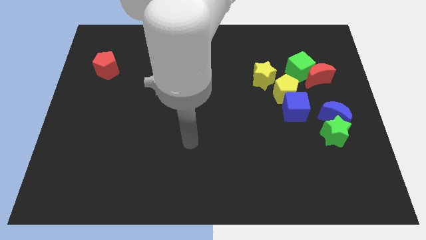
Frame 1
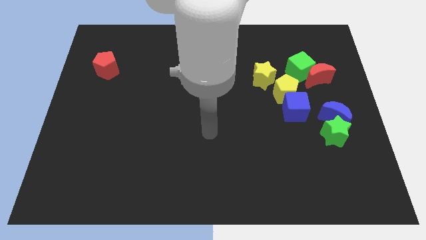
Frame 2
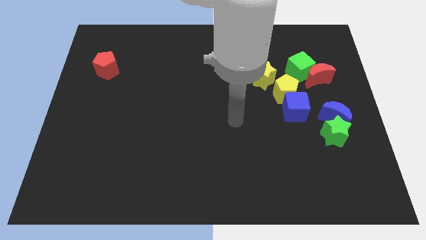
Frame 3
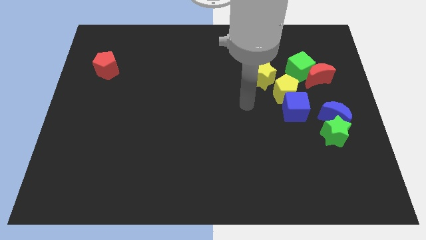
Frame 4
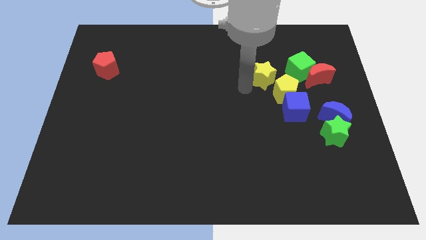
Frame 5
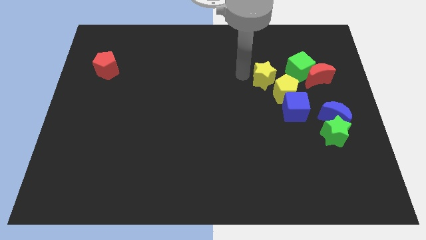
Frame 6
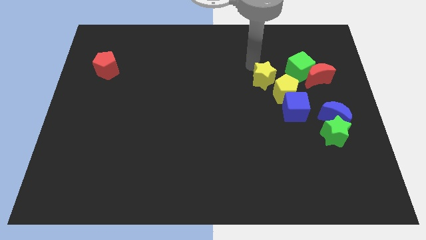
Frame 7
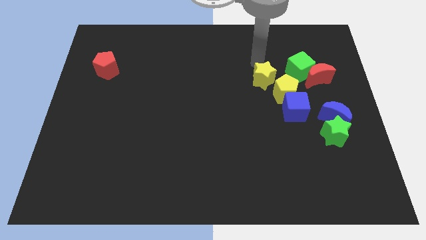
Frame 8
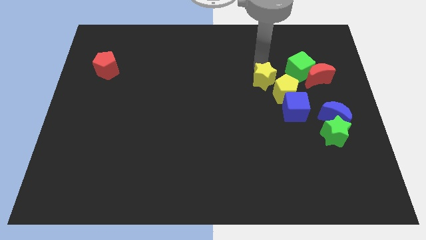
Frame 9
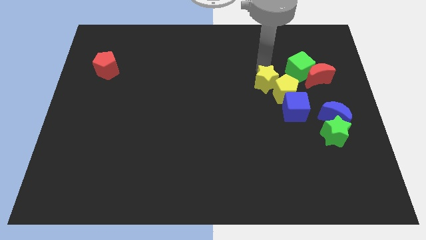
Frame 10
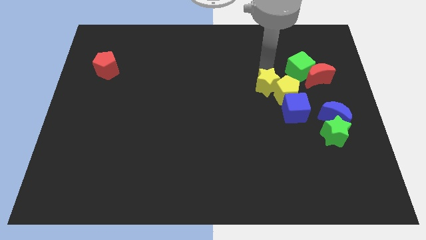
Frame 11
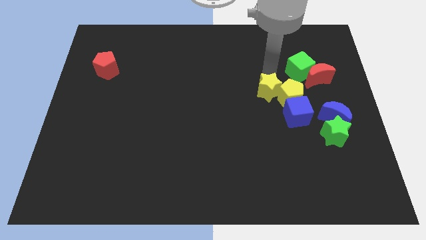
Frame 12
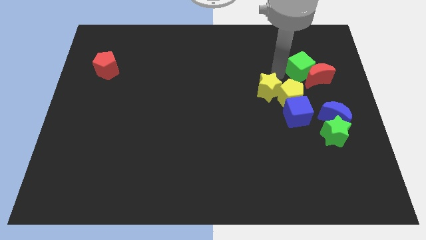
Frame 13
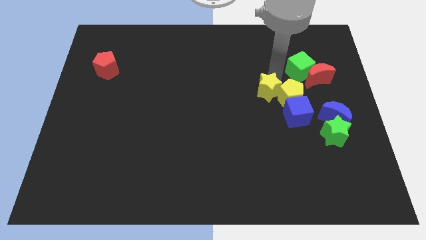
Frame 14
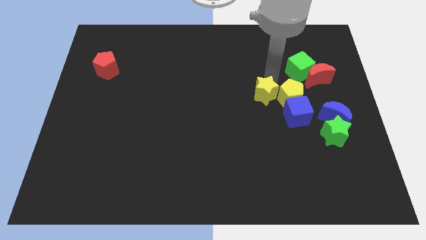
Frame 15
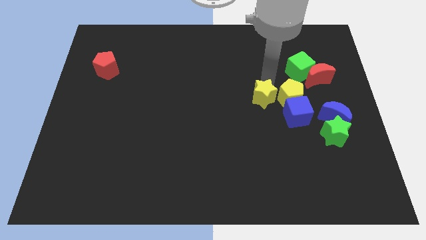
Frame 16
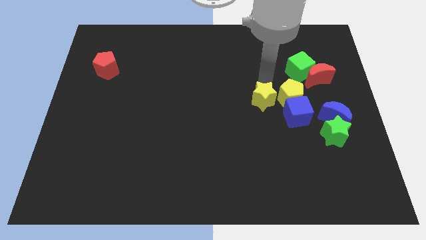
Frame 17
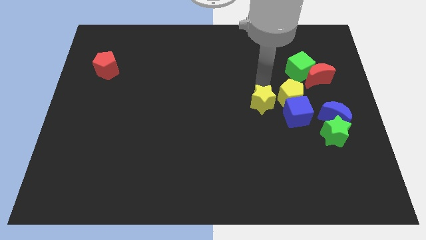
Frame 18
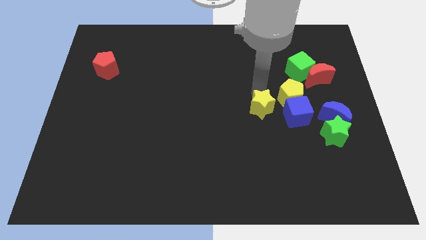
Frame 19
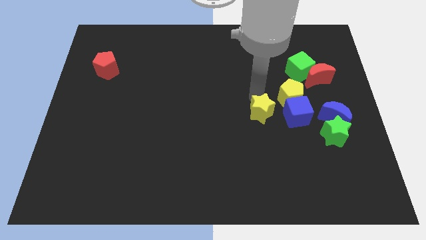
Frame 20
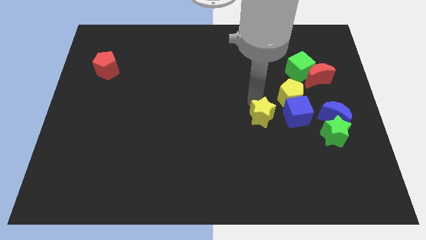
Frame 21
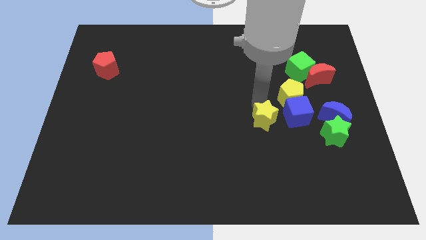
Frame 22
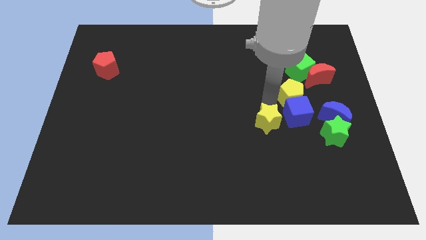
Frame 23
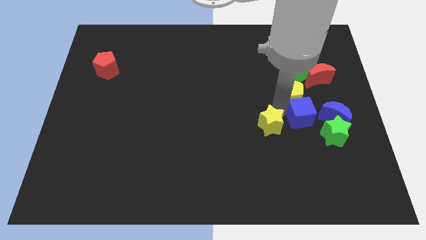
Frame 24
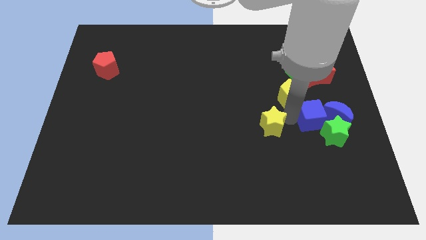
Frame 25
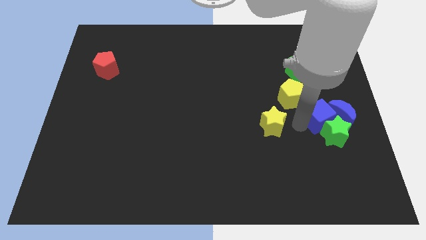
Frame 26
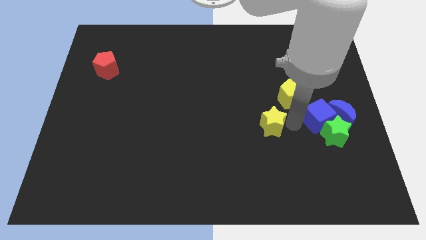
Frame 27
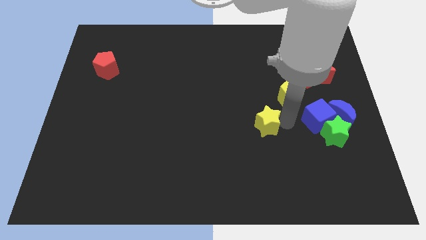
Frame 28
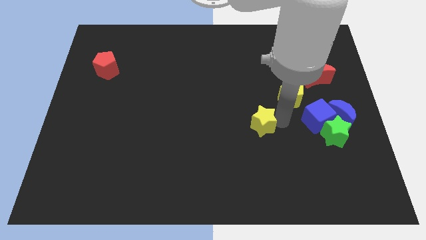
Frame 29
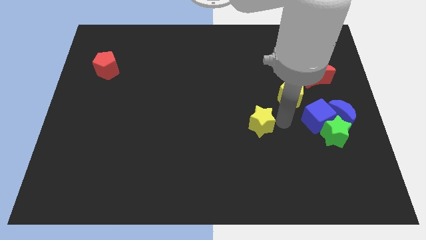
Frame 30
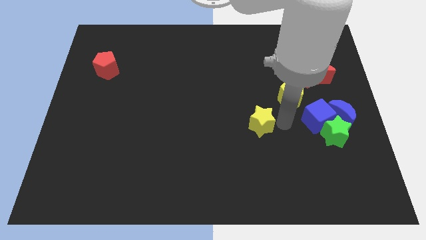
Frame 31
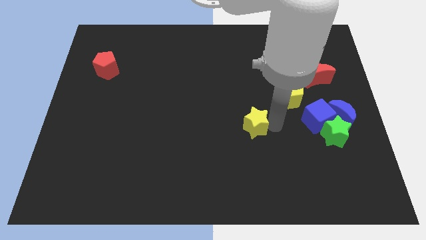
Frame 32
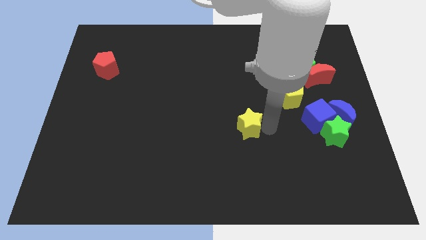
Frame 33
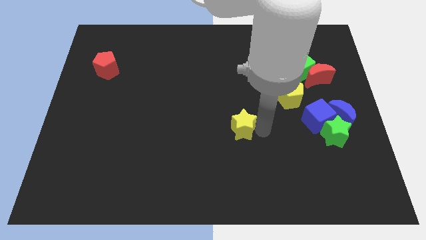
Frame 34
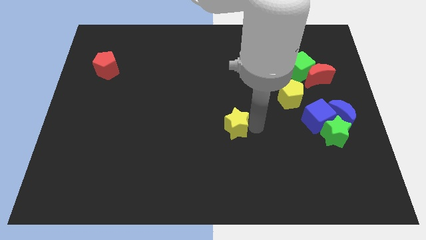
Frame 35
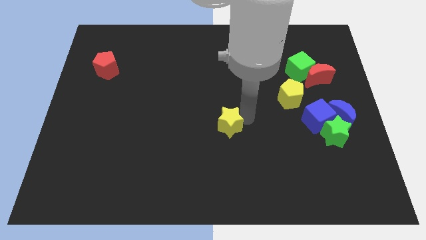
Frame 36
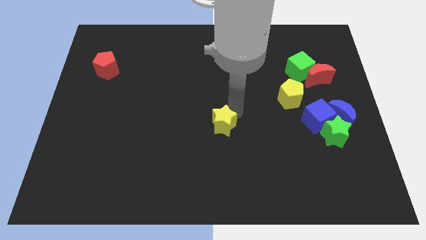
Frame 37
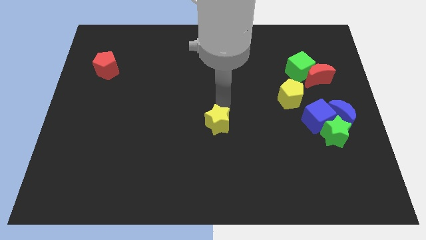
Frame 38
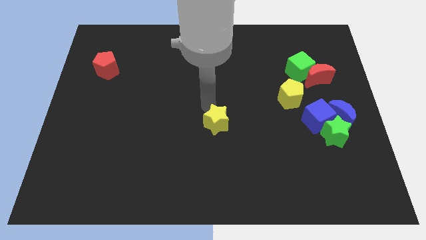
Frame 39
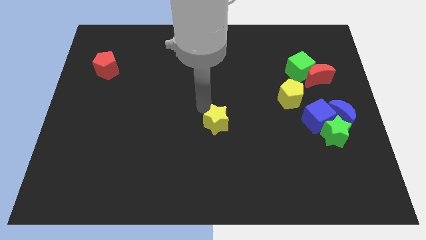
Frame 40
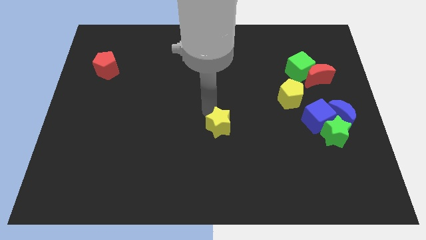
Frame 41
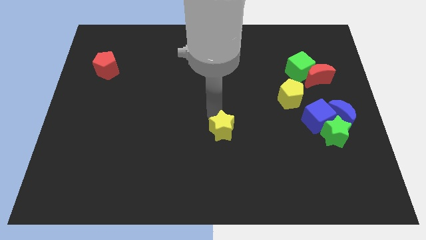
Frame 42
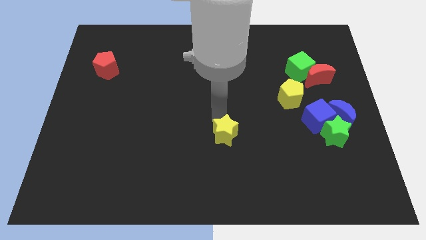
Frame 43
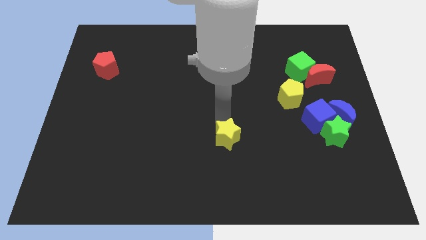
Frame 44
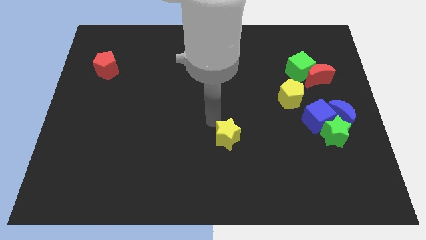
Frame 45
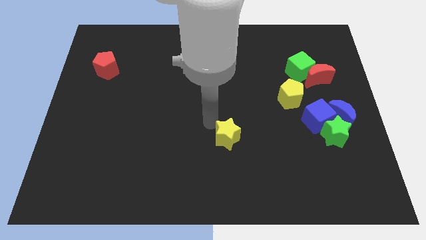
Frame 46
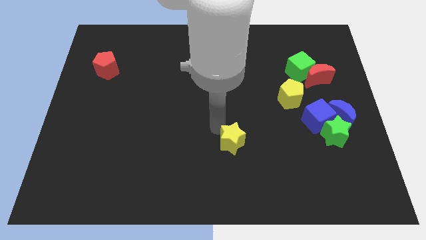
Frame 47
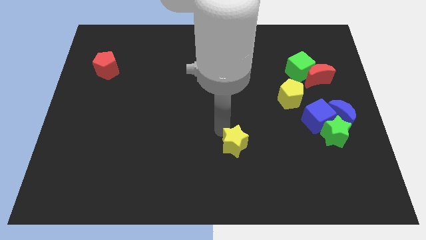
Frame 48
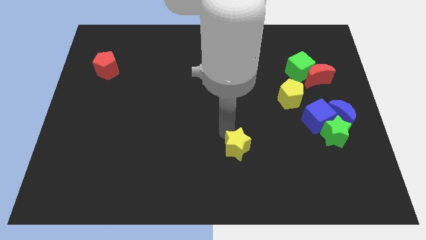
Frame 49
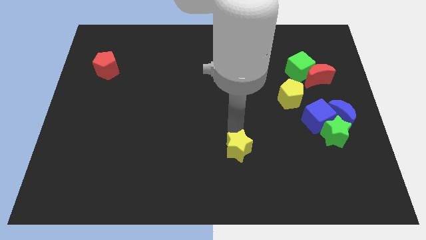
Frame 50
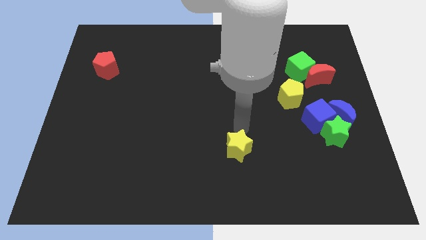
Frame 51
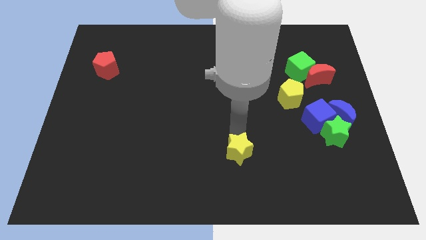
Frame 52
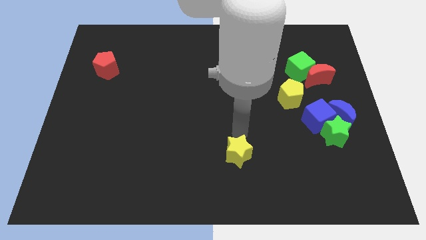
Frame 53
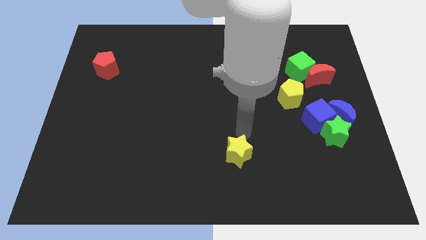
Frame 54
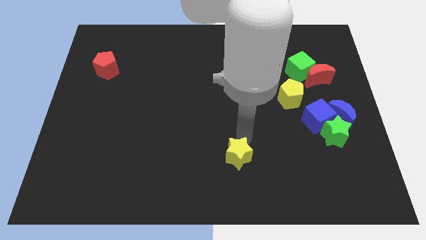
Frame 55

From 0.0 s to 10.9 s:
put the yellow star to the bottom

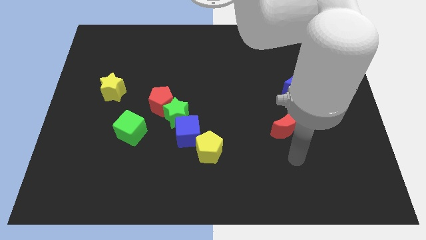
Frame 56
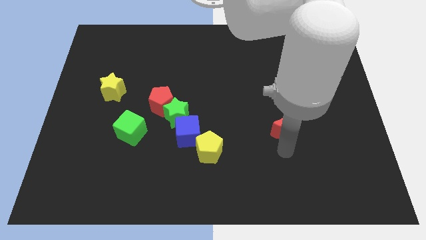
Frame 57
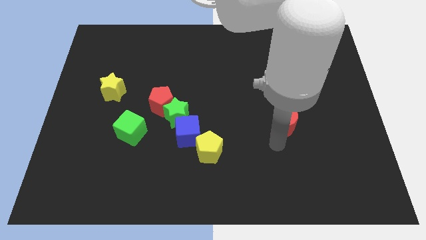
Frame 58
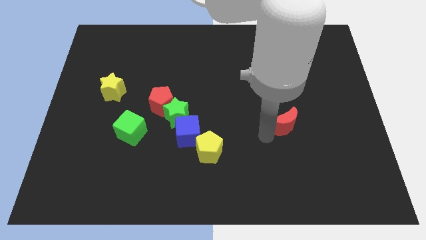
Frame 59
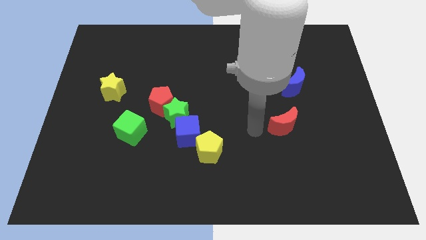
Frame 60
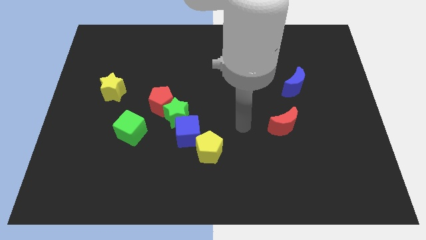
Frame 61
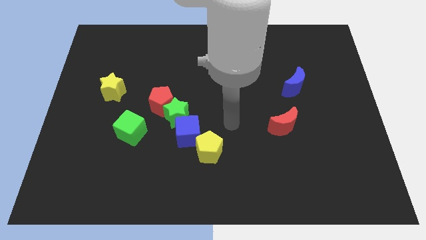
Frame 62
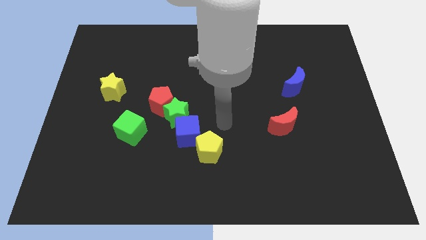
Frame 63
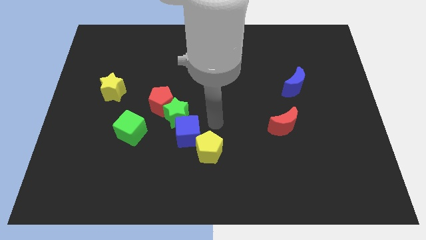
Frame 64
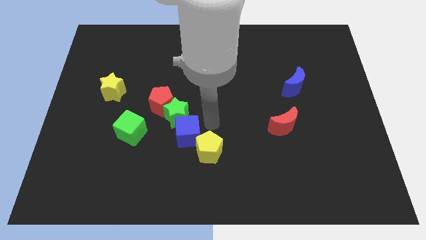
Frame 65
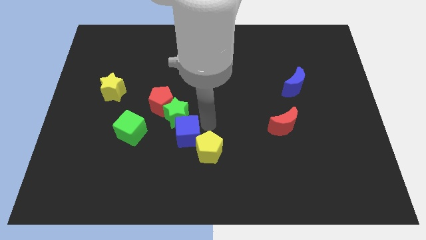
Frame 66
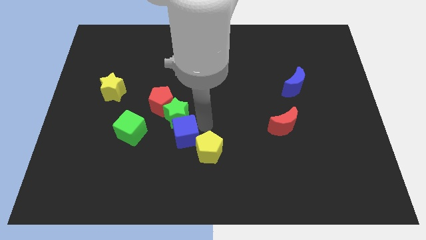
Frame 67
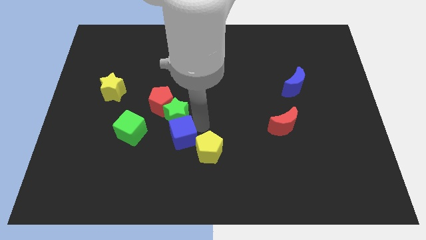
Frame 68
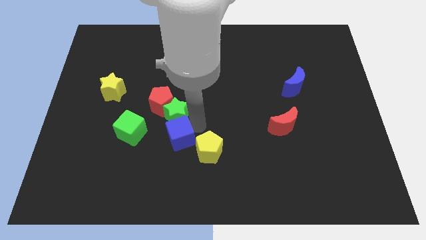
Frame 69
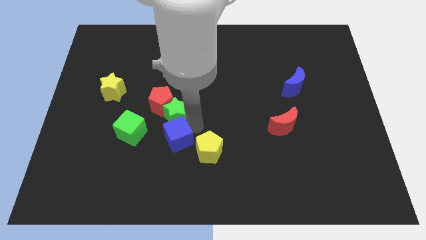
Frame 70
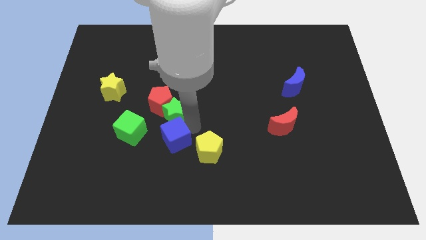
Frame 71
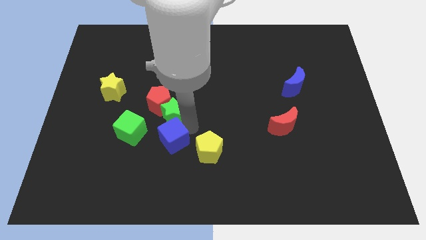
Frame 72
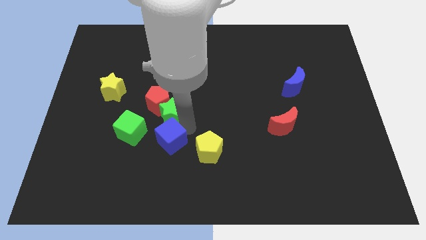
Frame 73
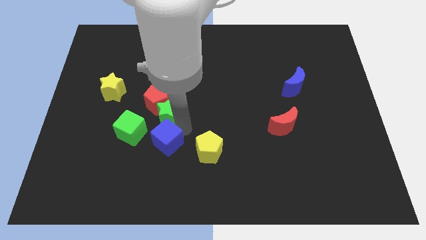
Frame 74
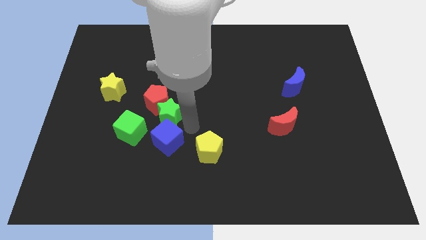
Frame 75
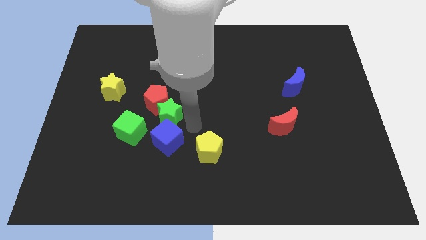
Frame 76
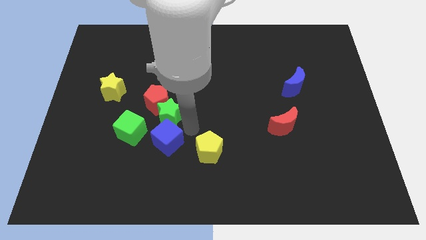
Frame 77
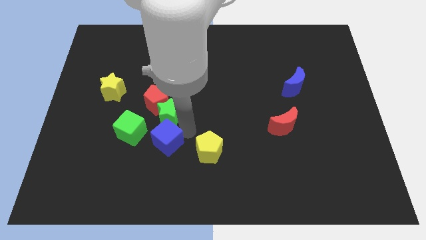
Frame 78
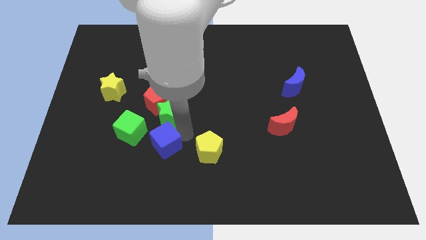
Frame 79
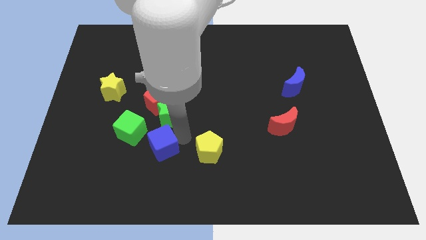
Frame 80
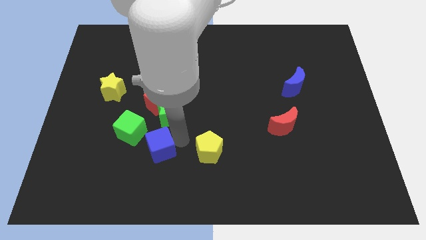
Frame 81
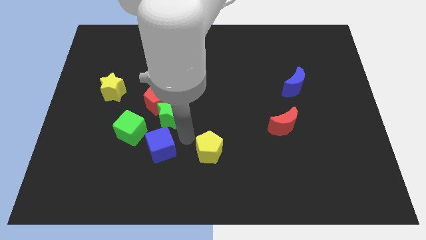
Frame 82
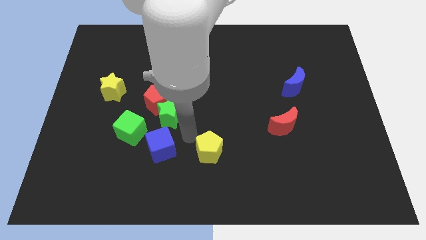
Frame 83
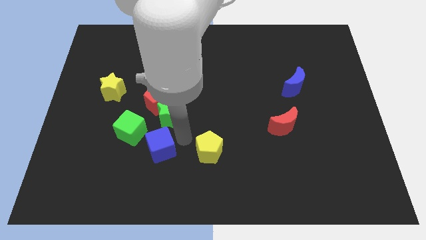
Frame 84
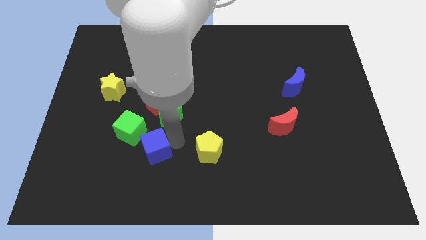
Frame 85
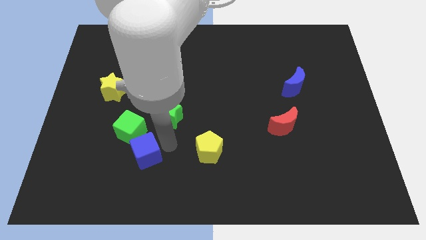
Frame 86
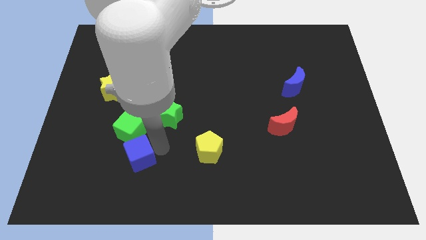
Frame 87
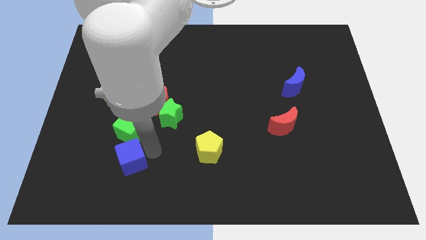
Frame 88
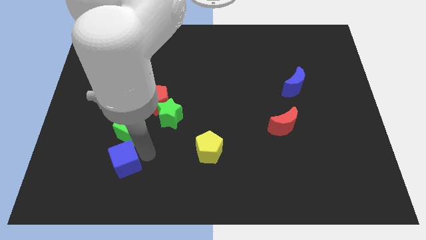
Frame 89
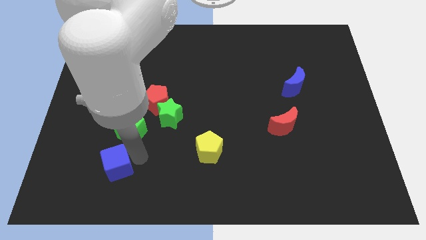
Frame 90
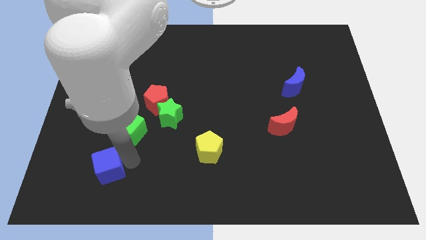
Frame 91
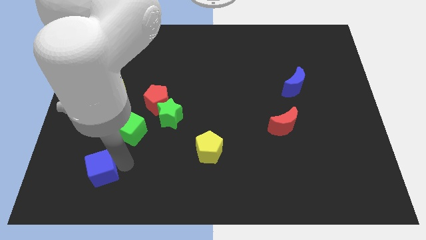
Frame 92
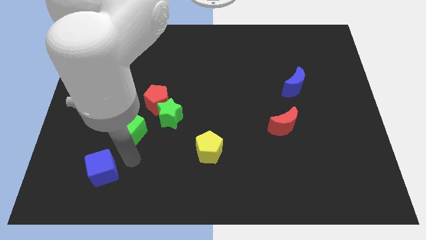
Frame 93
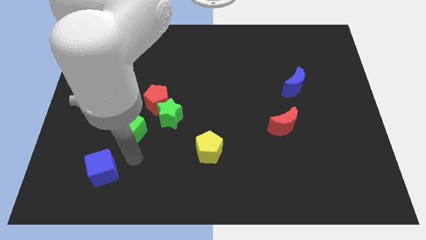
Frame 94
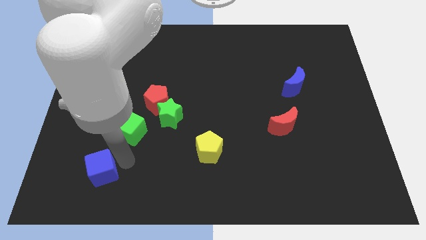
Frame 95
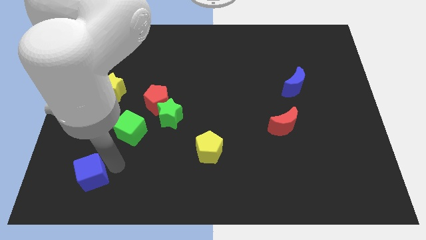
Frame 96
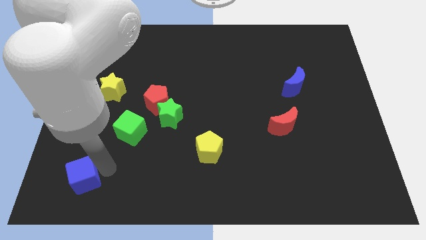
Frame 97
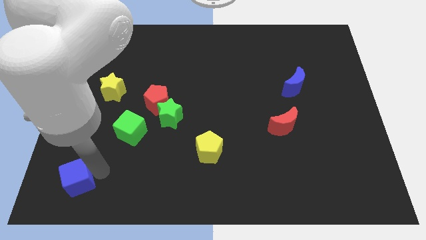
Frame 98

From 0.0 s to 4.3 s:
put the blue cube to the bottom left of the board
